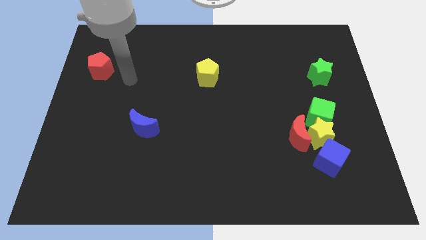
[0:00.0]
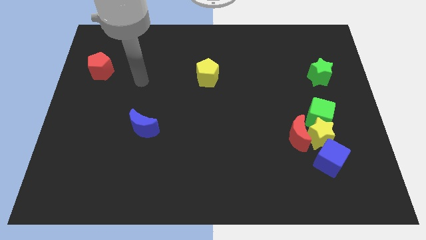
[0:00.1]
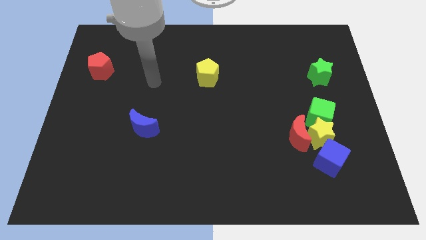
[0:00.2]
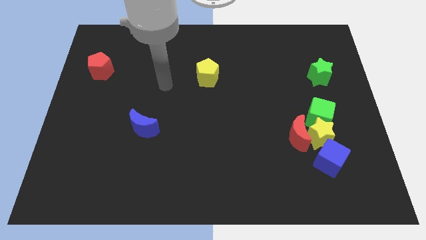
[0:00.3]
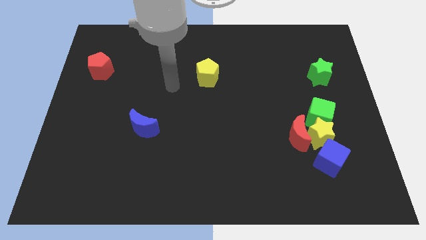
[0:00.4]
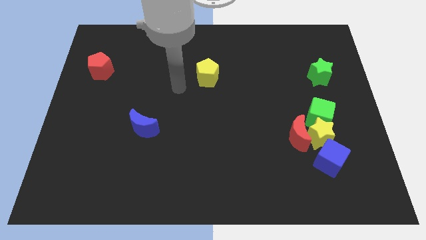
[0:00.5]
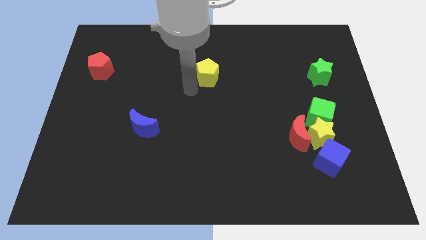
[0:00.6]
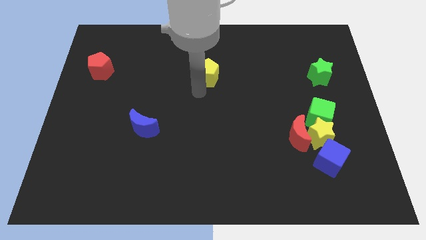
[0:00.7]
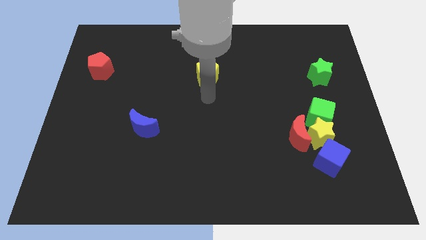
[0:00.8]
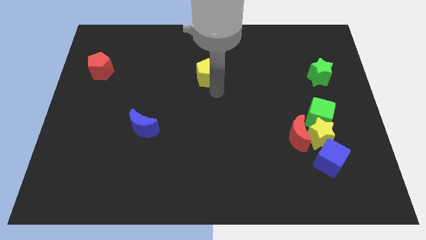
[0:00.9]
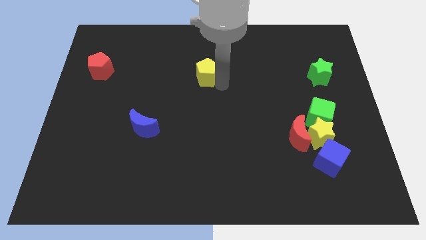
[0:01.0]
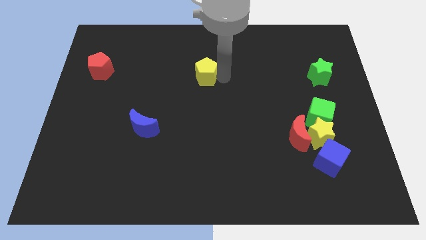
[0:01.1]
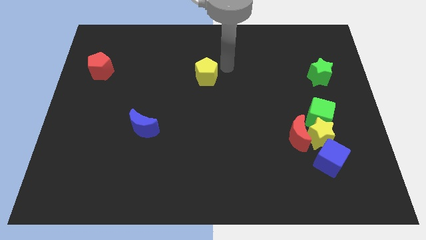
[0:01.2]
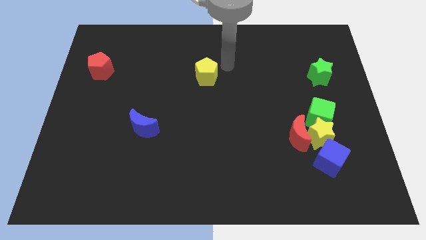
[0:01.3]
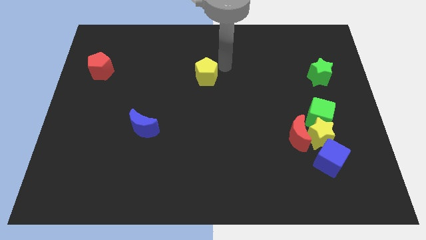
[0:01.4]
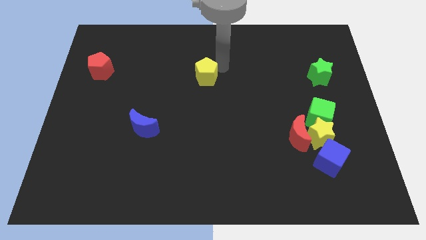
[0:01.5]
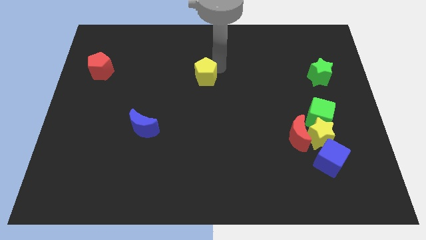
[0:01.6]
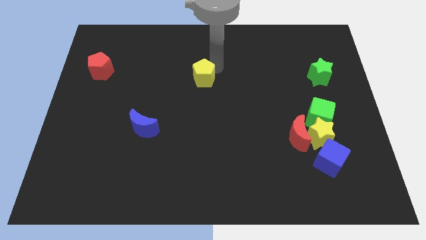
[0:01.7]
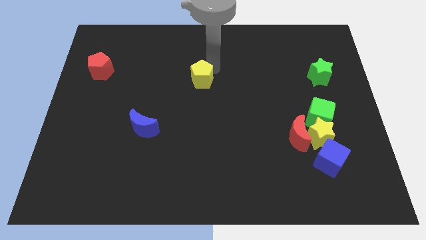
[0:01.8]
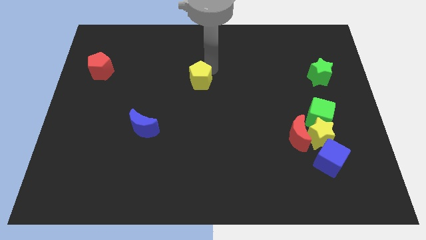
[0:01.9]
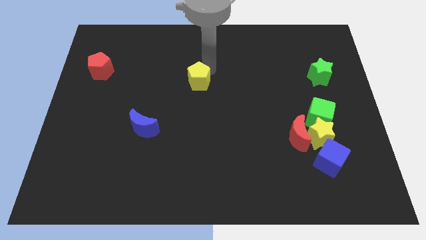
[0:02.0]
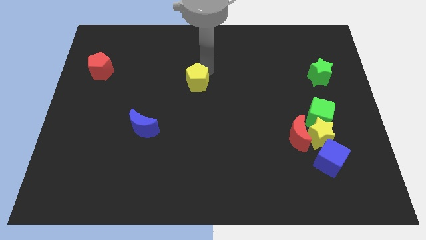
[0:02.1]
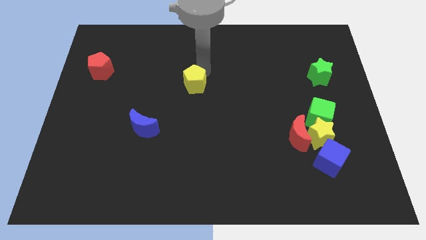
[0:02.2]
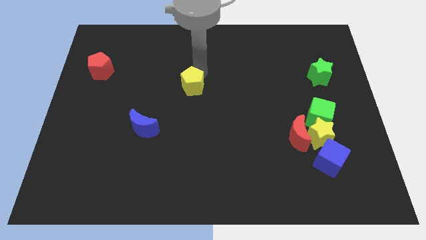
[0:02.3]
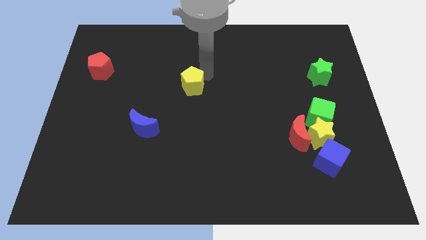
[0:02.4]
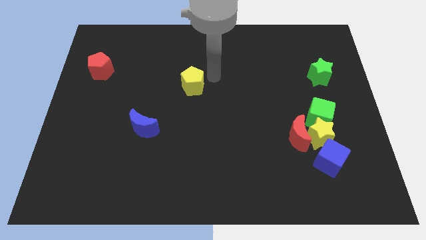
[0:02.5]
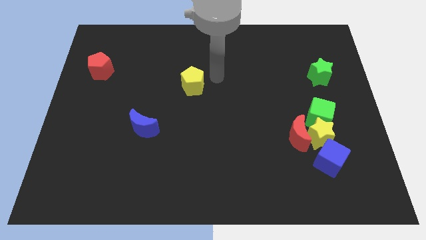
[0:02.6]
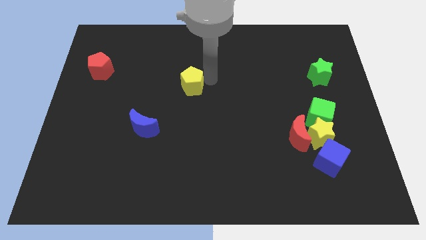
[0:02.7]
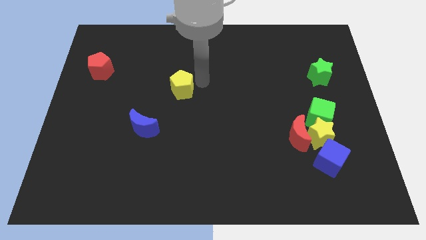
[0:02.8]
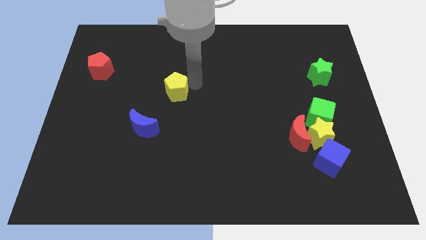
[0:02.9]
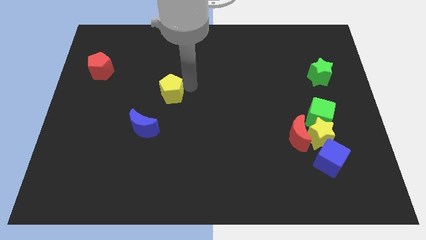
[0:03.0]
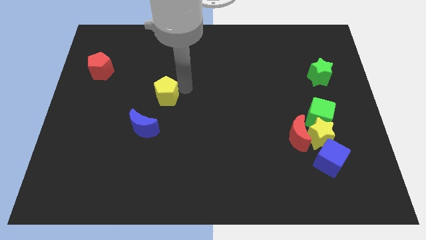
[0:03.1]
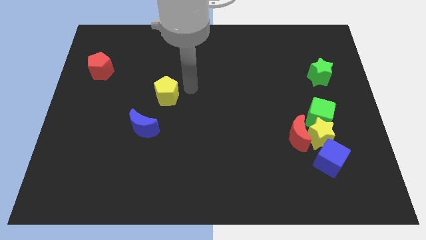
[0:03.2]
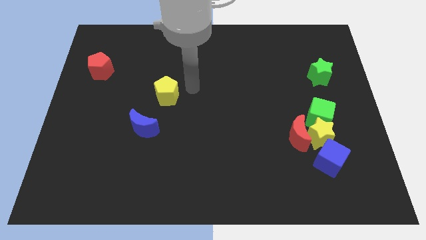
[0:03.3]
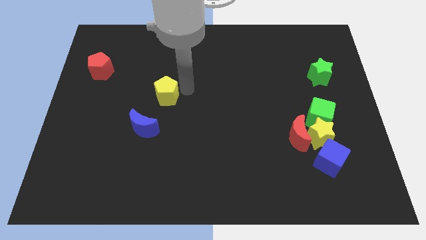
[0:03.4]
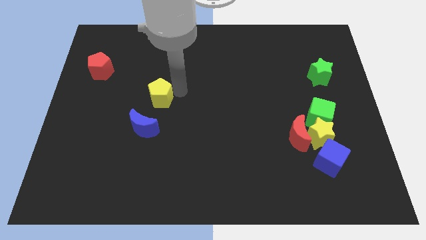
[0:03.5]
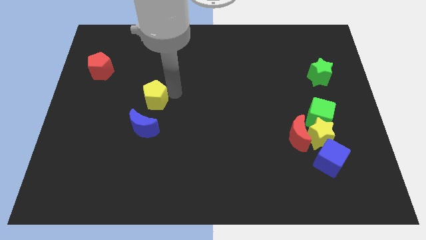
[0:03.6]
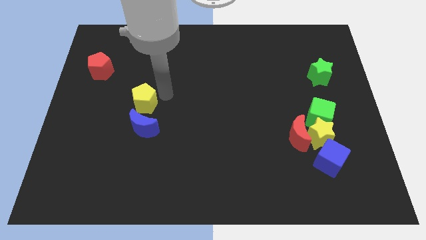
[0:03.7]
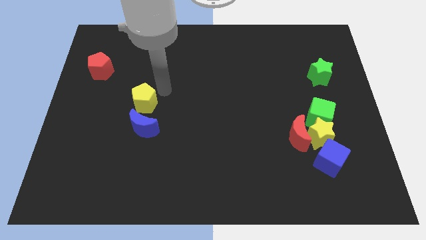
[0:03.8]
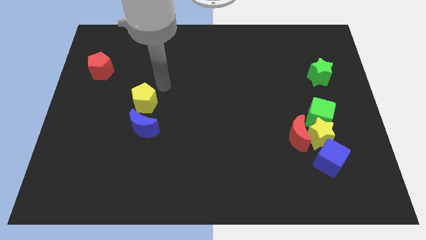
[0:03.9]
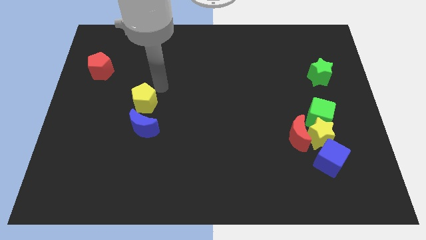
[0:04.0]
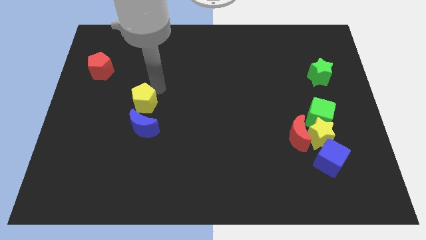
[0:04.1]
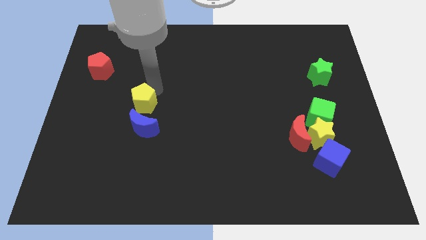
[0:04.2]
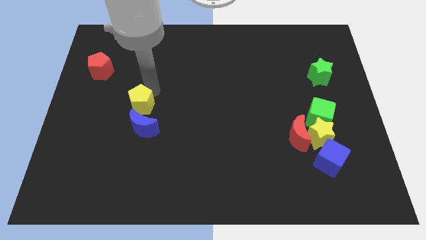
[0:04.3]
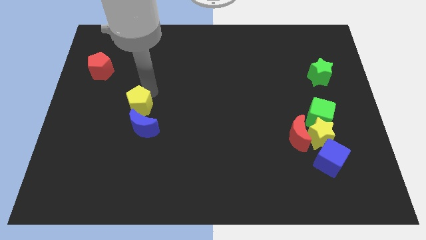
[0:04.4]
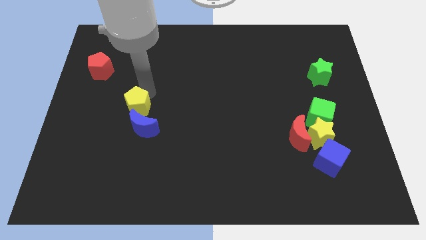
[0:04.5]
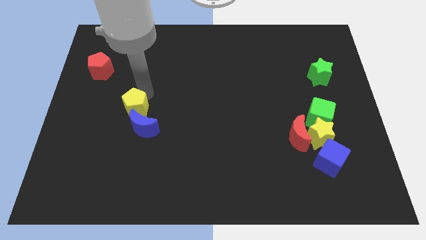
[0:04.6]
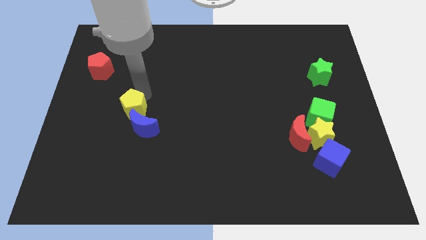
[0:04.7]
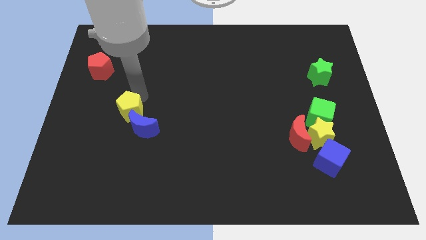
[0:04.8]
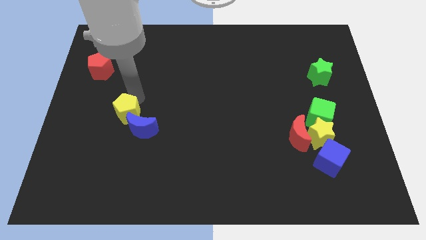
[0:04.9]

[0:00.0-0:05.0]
push the yellow pentagon left of the blue moon

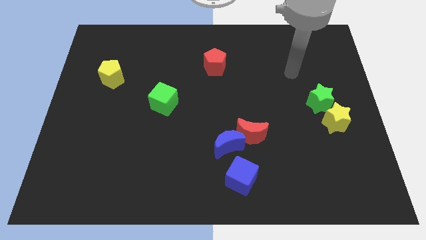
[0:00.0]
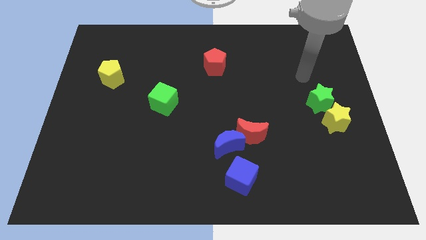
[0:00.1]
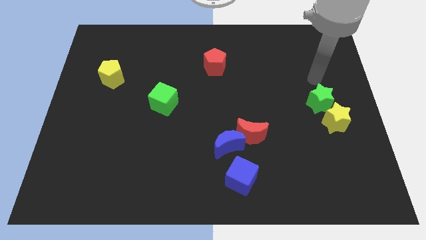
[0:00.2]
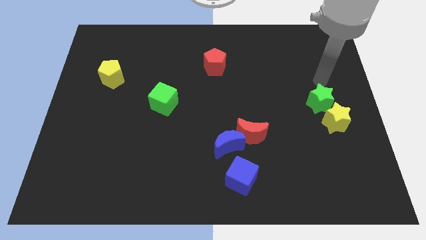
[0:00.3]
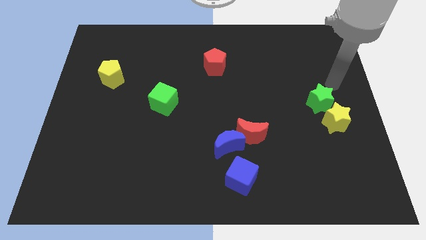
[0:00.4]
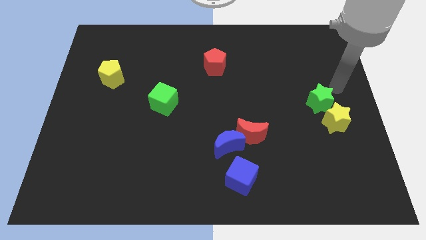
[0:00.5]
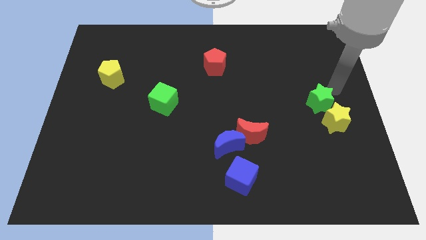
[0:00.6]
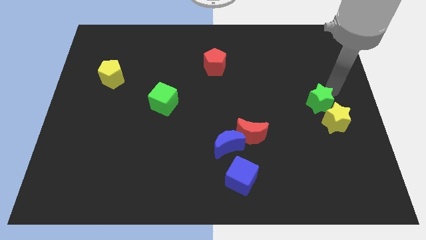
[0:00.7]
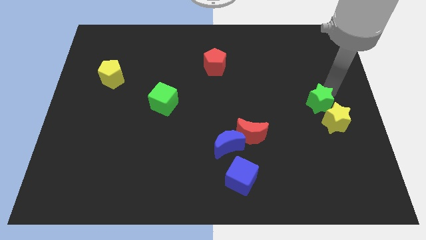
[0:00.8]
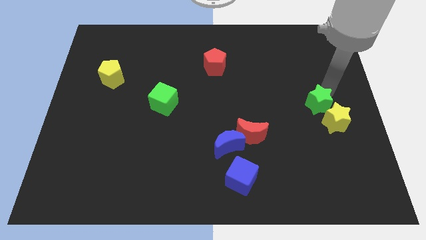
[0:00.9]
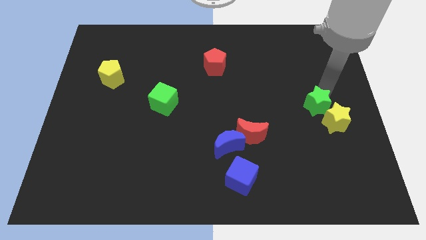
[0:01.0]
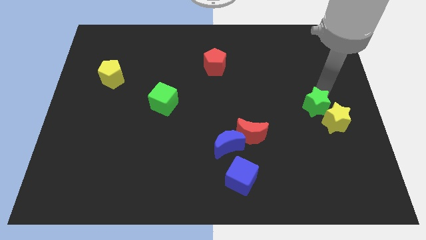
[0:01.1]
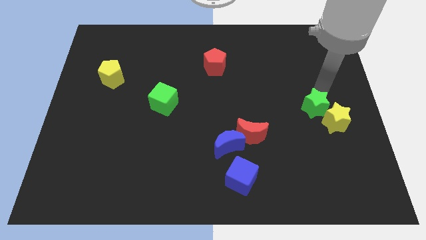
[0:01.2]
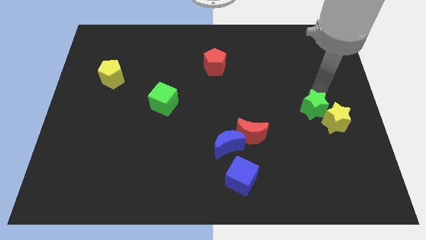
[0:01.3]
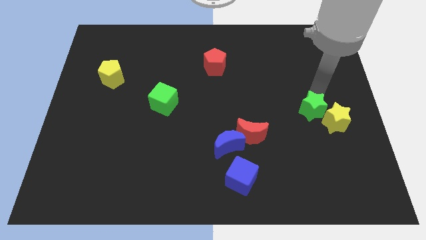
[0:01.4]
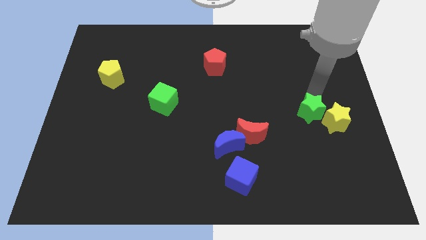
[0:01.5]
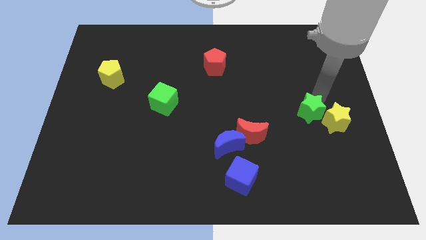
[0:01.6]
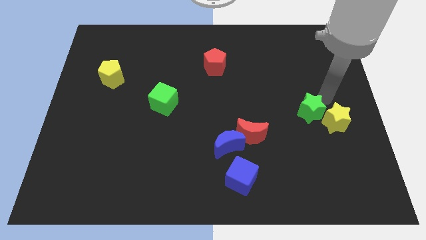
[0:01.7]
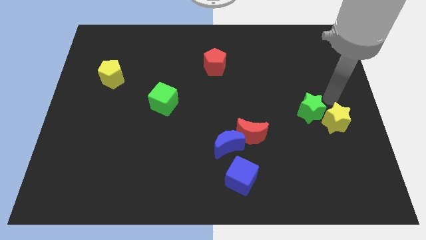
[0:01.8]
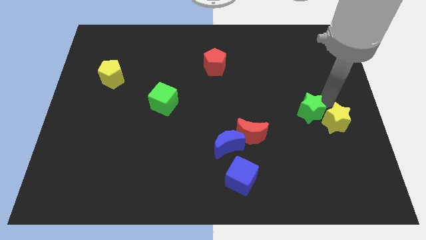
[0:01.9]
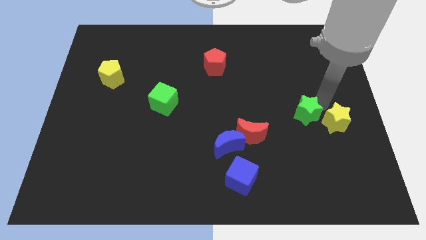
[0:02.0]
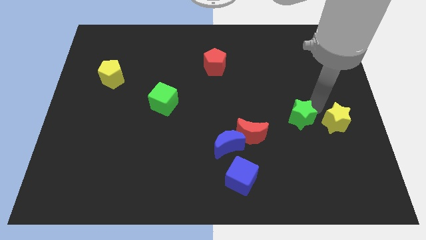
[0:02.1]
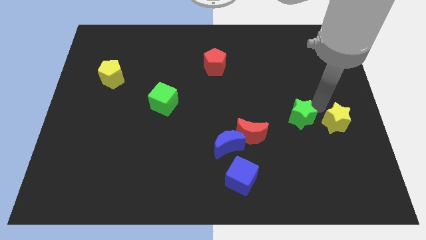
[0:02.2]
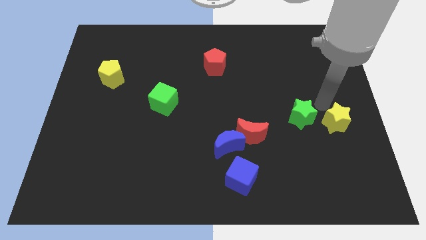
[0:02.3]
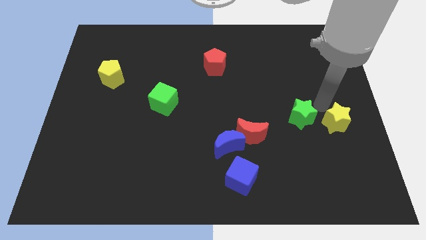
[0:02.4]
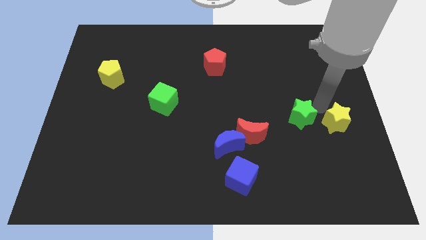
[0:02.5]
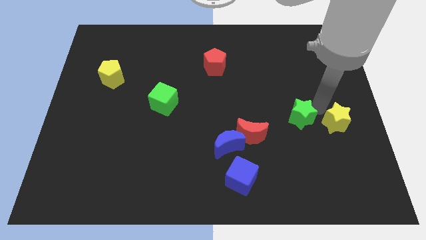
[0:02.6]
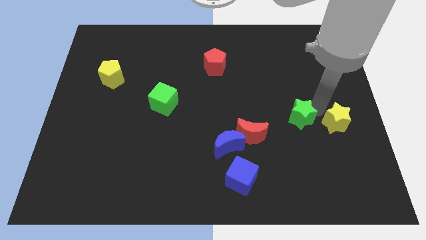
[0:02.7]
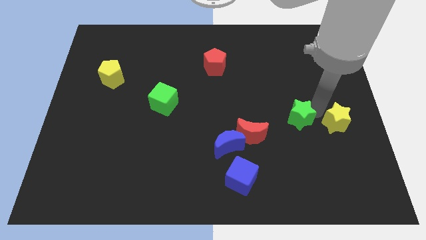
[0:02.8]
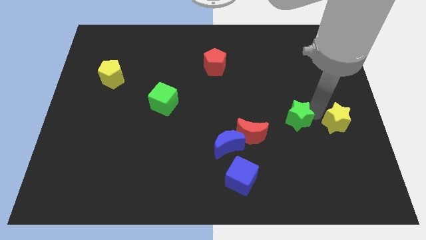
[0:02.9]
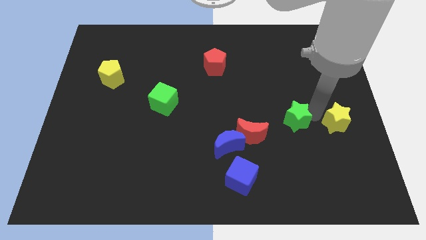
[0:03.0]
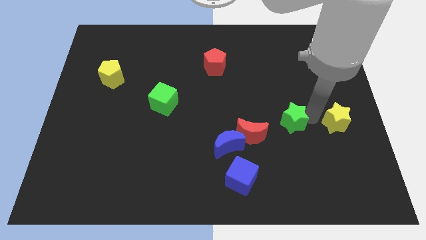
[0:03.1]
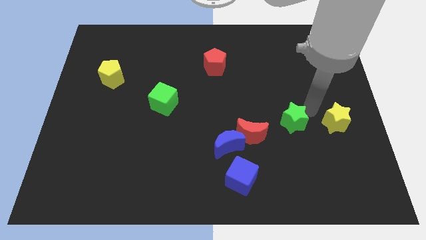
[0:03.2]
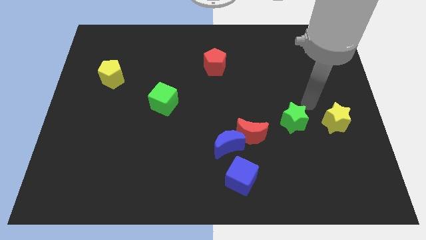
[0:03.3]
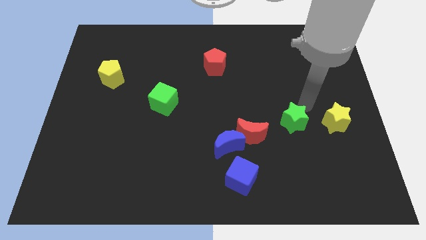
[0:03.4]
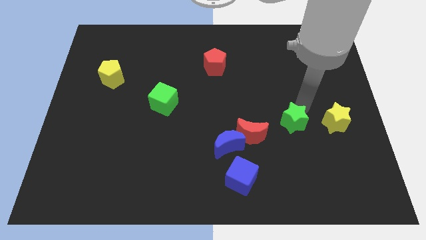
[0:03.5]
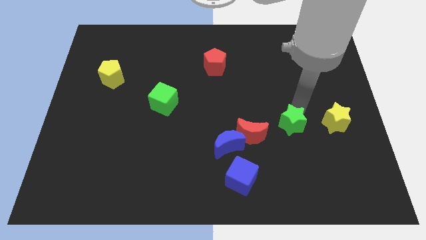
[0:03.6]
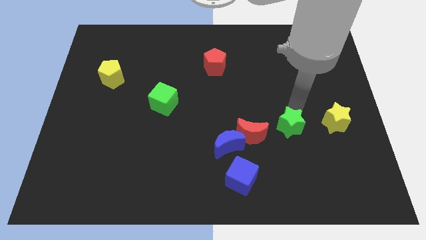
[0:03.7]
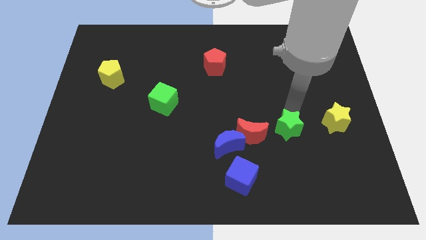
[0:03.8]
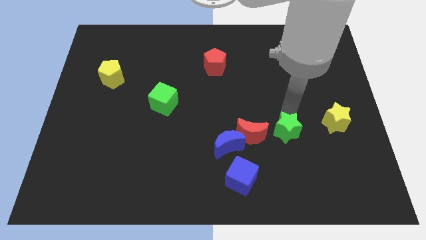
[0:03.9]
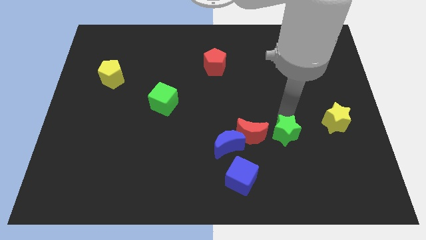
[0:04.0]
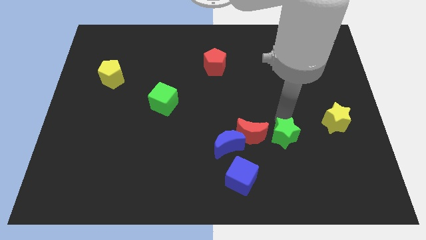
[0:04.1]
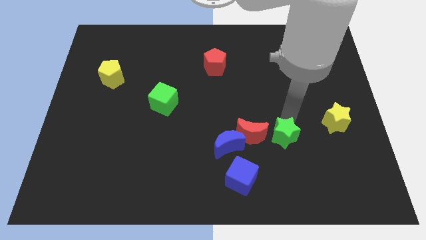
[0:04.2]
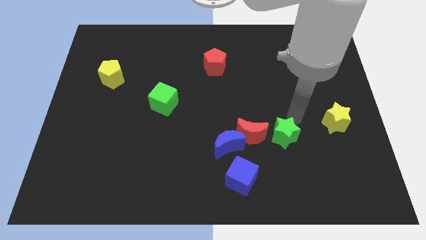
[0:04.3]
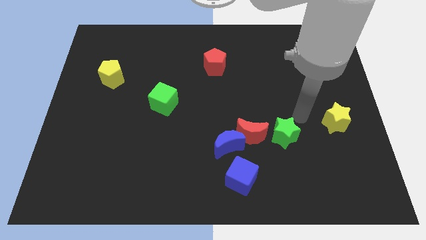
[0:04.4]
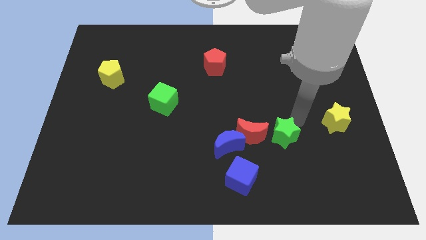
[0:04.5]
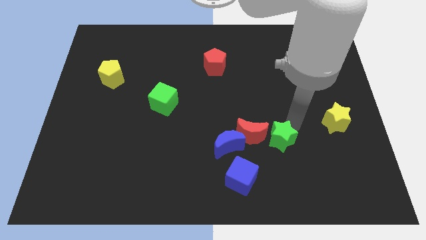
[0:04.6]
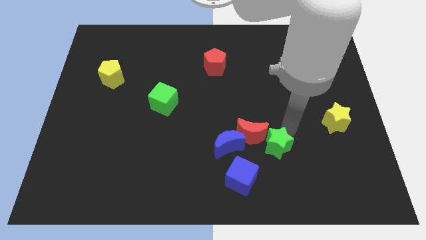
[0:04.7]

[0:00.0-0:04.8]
push the green star diagonally up and to the right of the blue cube
